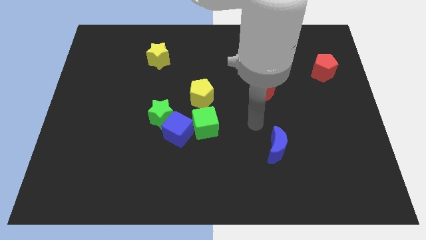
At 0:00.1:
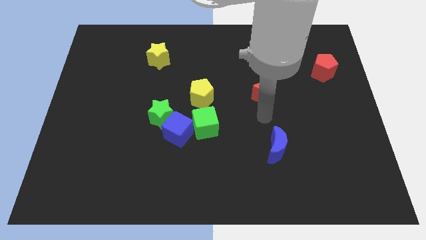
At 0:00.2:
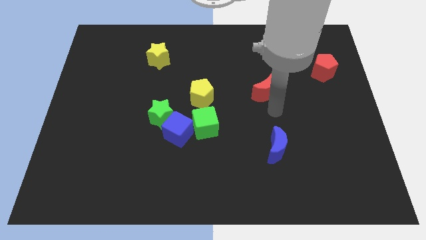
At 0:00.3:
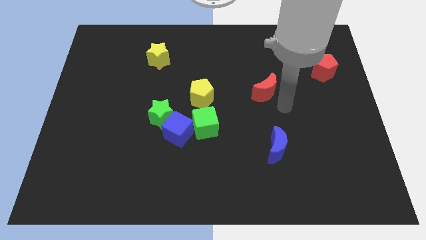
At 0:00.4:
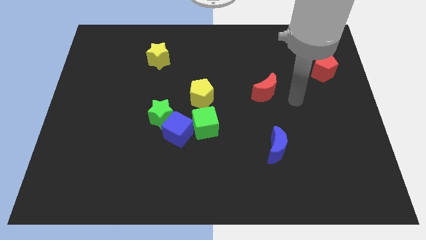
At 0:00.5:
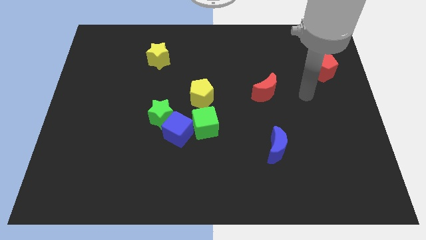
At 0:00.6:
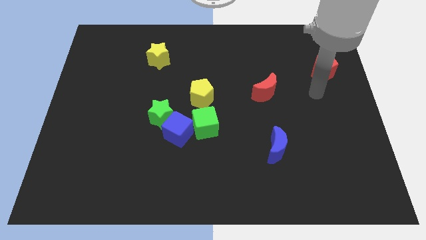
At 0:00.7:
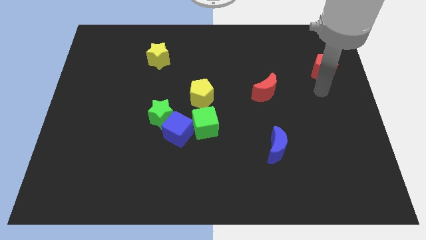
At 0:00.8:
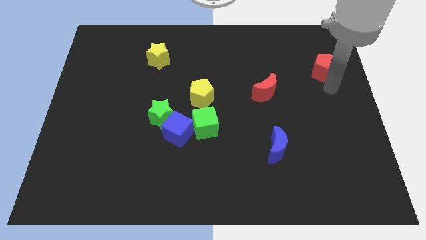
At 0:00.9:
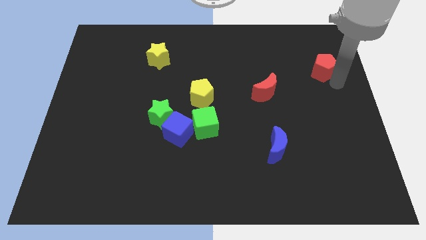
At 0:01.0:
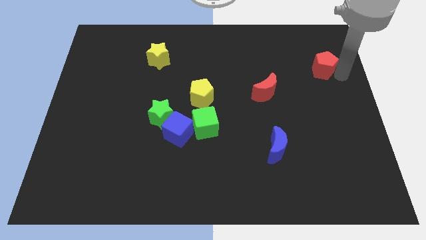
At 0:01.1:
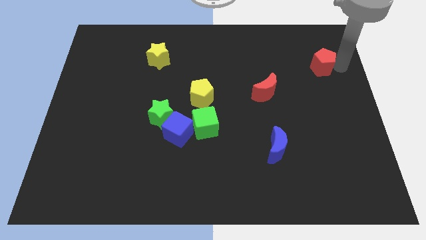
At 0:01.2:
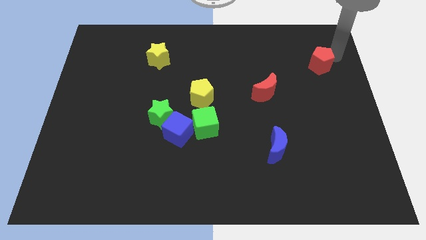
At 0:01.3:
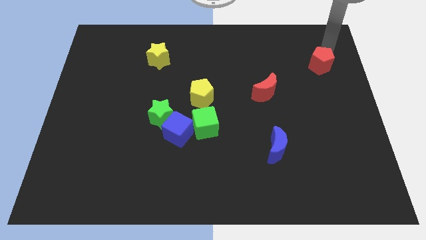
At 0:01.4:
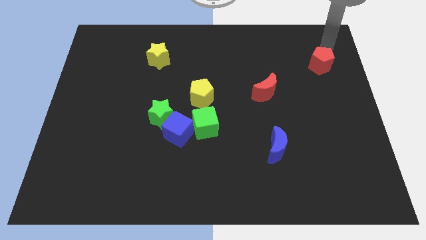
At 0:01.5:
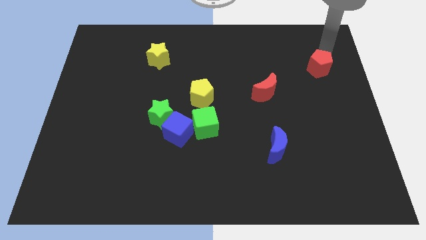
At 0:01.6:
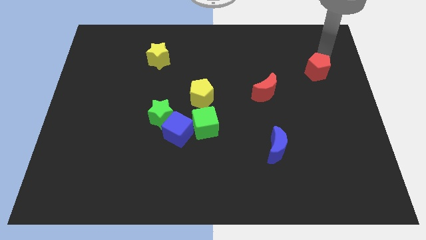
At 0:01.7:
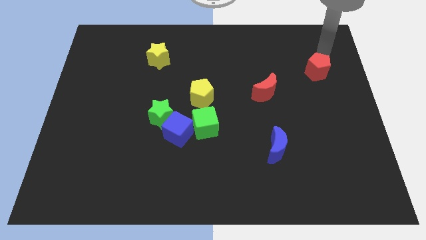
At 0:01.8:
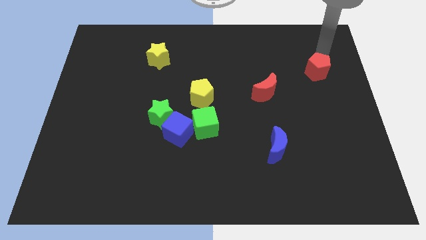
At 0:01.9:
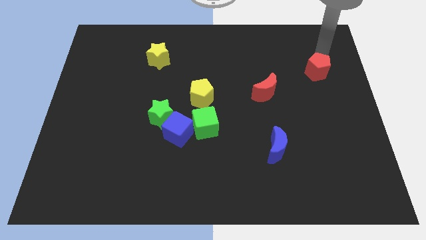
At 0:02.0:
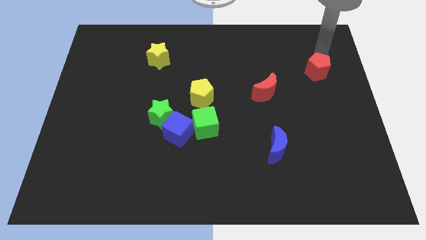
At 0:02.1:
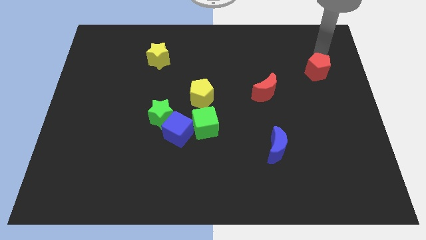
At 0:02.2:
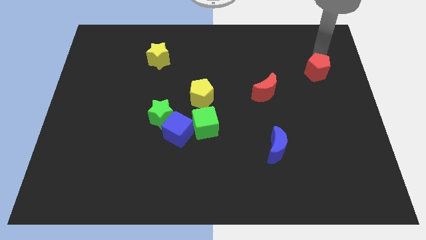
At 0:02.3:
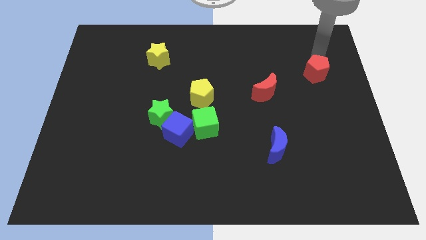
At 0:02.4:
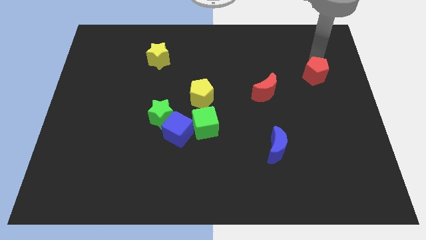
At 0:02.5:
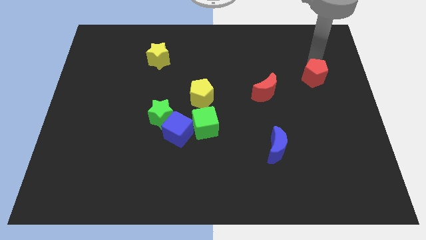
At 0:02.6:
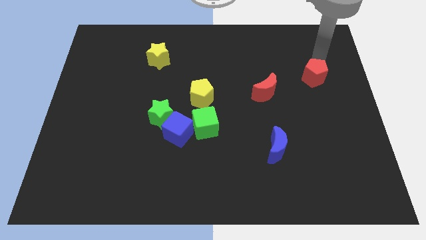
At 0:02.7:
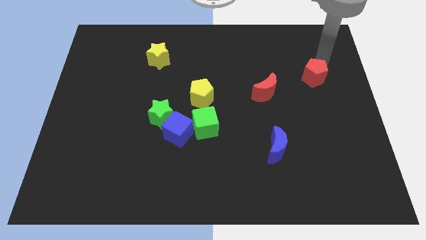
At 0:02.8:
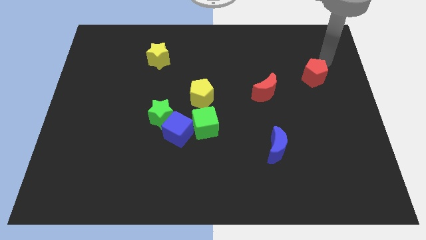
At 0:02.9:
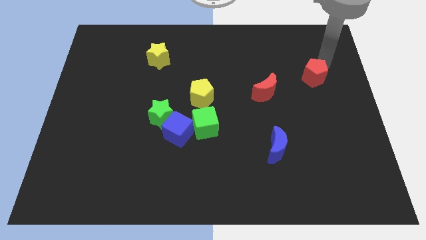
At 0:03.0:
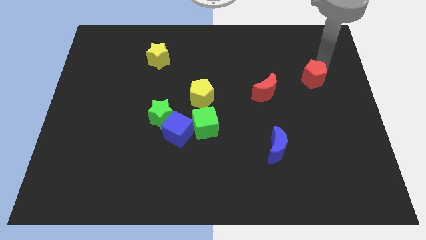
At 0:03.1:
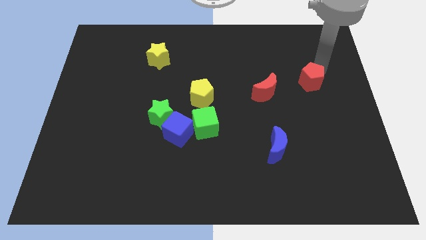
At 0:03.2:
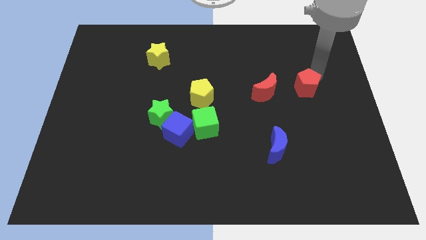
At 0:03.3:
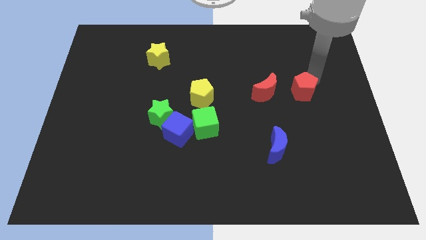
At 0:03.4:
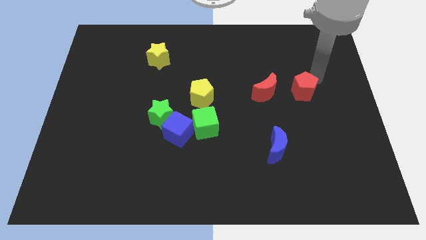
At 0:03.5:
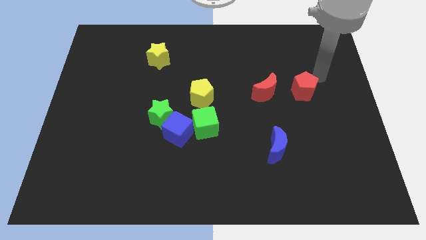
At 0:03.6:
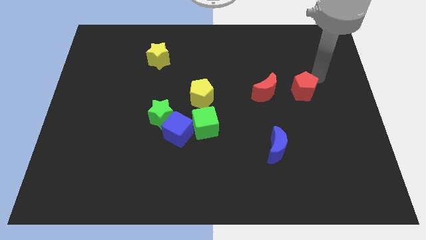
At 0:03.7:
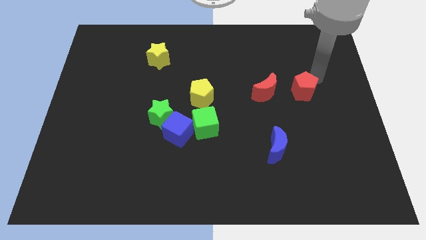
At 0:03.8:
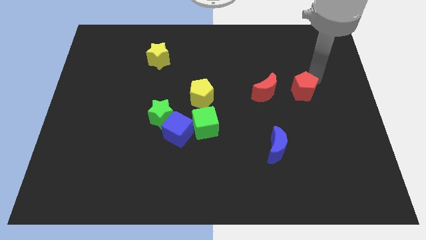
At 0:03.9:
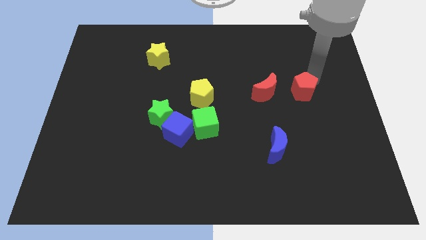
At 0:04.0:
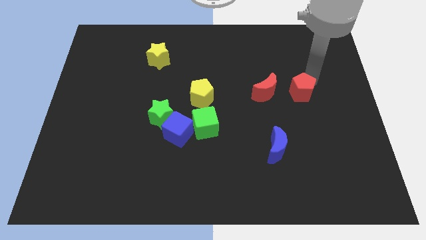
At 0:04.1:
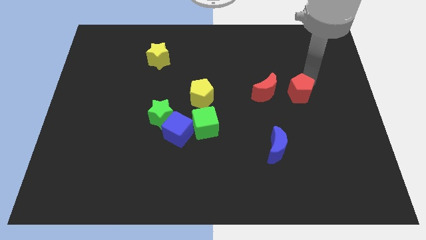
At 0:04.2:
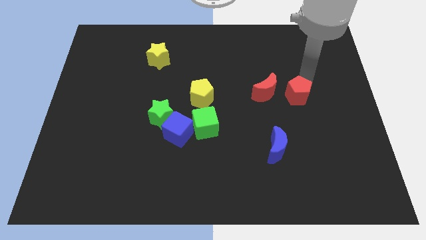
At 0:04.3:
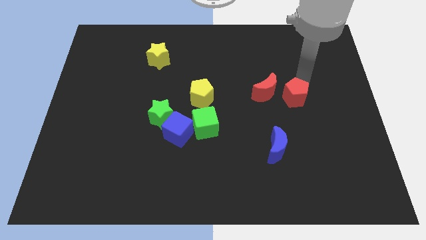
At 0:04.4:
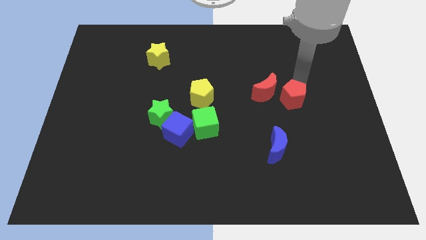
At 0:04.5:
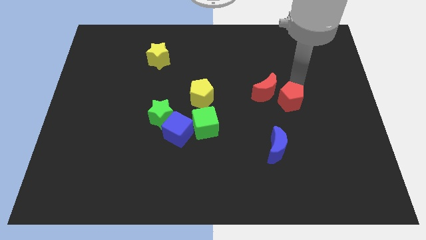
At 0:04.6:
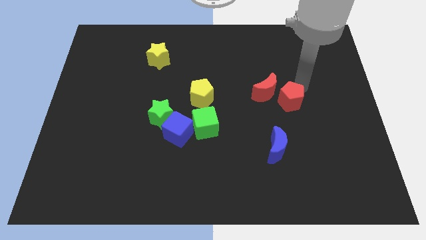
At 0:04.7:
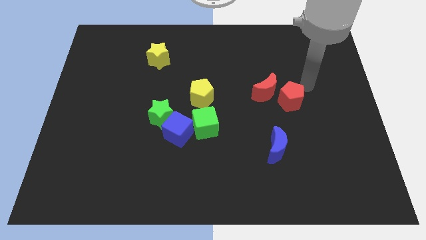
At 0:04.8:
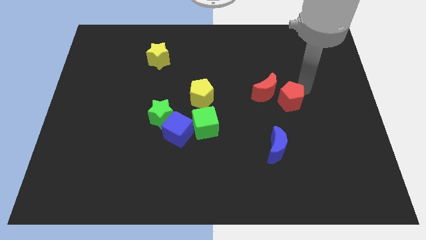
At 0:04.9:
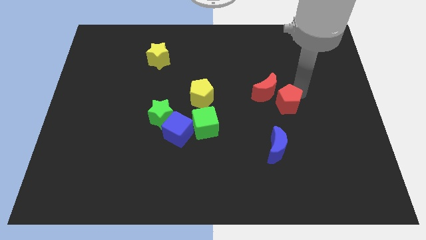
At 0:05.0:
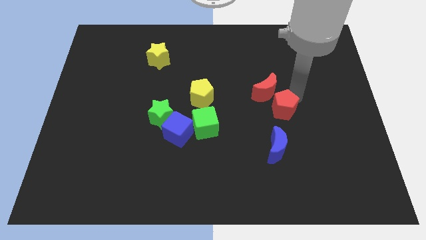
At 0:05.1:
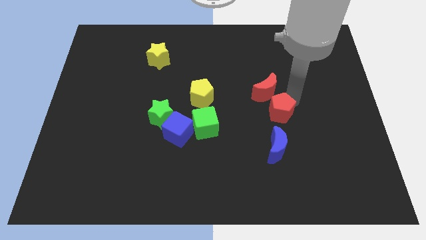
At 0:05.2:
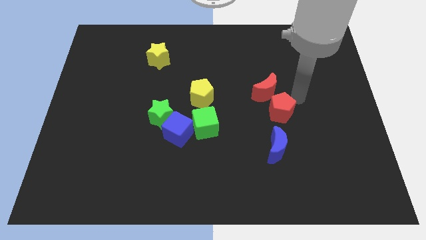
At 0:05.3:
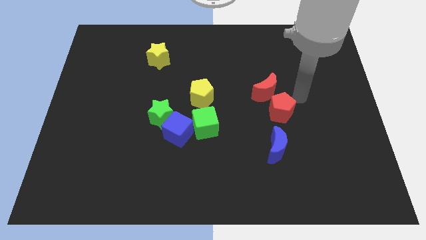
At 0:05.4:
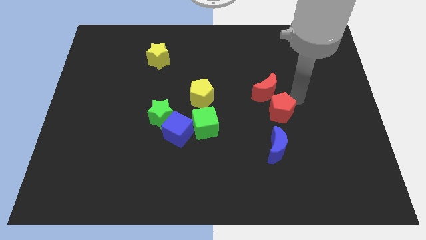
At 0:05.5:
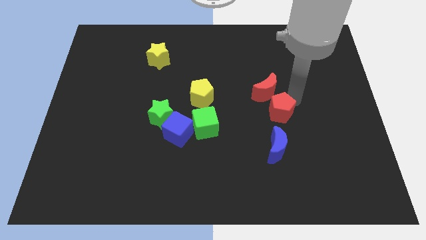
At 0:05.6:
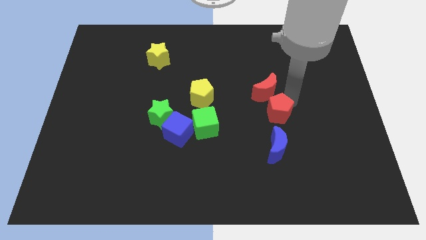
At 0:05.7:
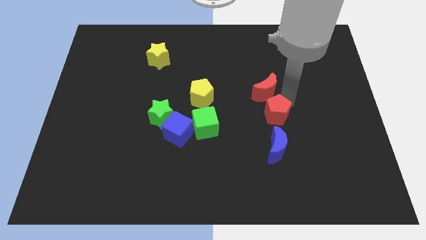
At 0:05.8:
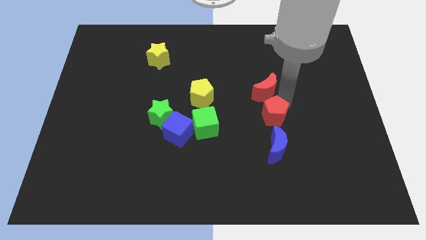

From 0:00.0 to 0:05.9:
slide the red pentagon downwards and to the left

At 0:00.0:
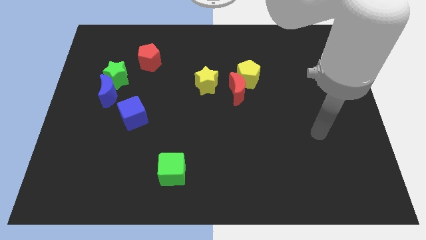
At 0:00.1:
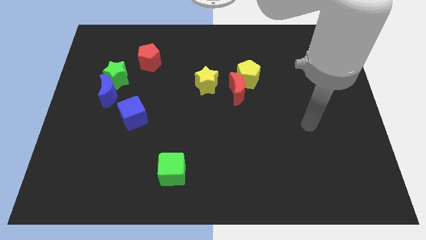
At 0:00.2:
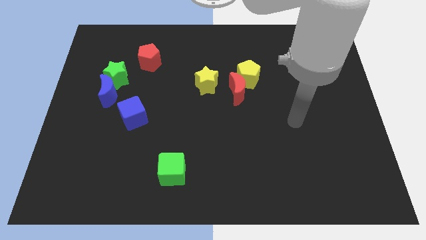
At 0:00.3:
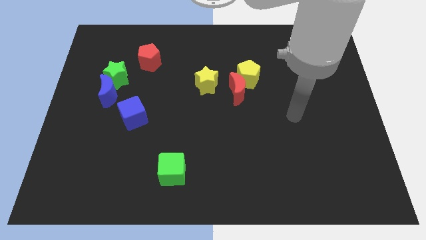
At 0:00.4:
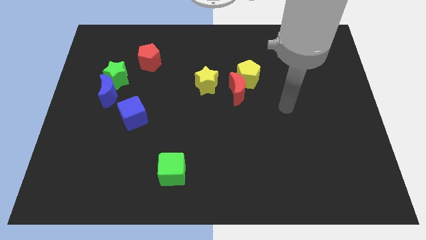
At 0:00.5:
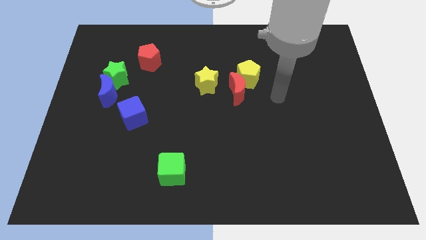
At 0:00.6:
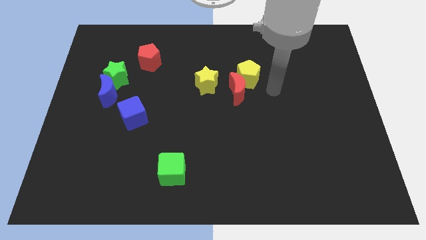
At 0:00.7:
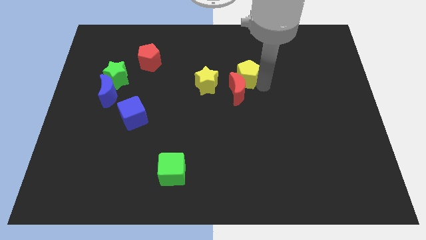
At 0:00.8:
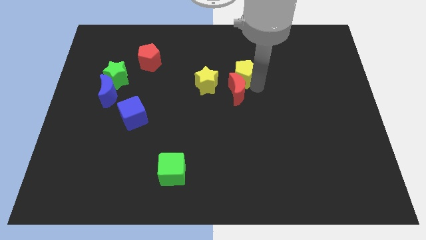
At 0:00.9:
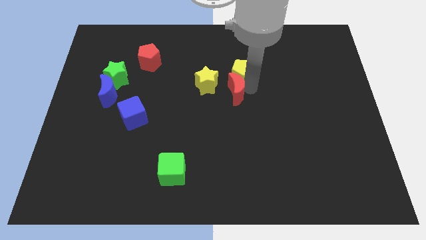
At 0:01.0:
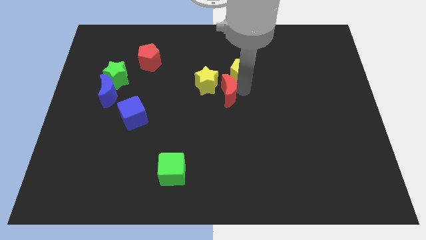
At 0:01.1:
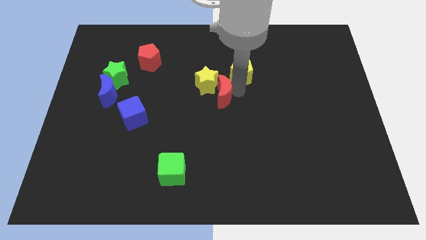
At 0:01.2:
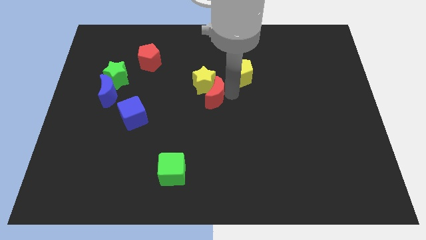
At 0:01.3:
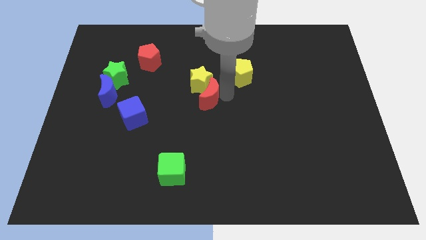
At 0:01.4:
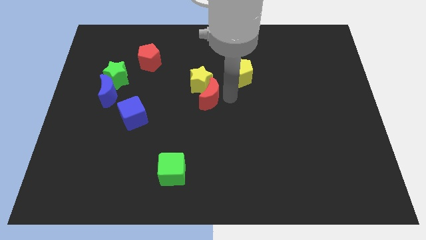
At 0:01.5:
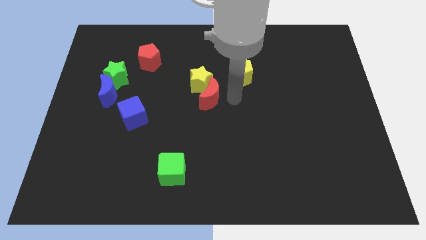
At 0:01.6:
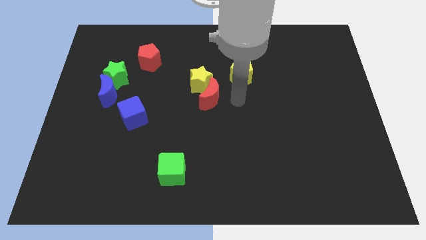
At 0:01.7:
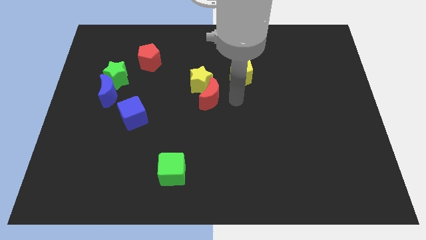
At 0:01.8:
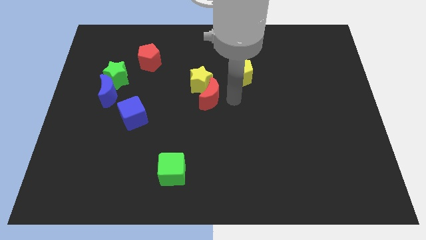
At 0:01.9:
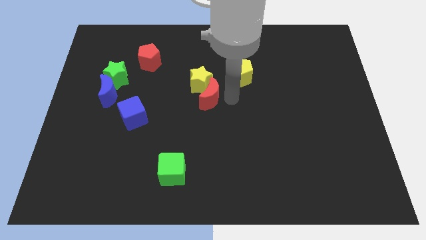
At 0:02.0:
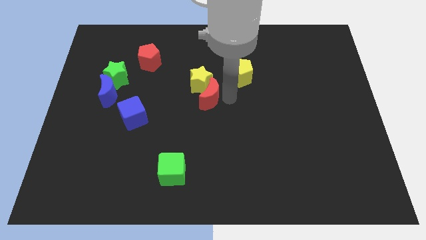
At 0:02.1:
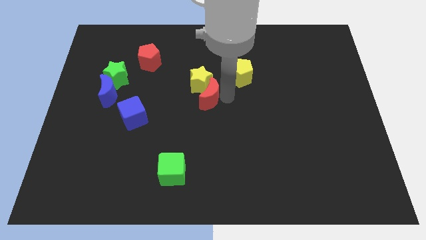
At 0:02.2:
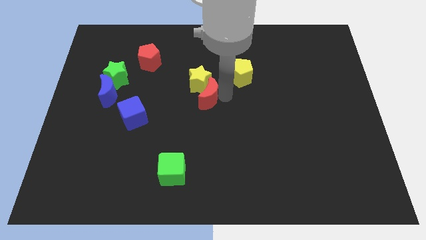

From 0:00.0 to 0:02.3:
push the red moon a little bit left
